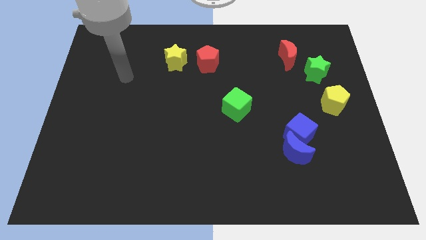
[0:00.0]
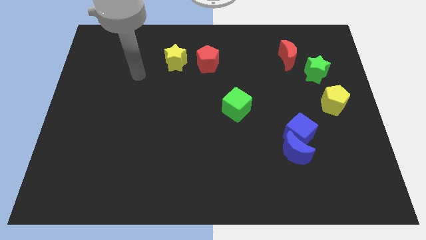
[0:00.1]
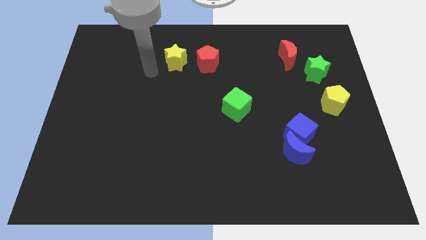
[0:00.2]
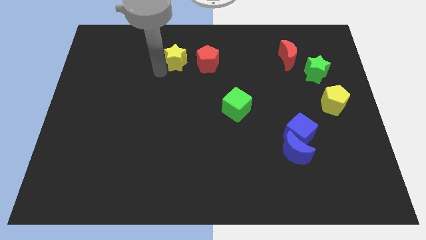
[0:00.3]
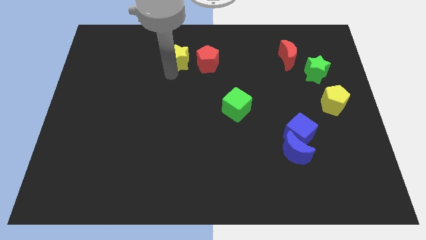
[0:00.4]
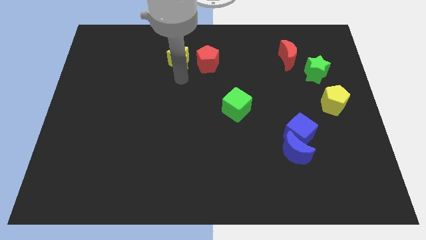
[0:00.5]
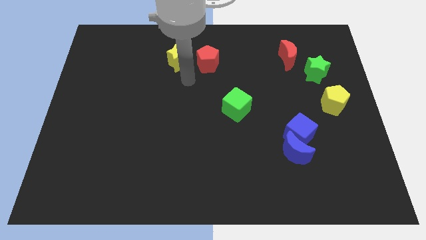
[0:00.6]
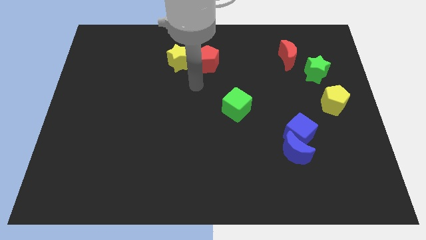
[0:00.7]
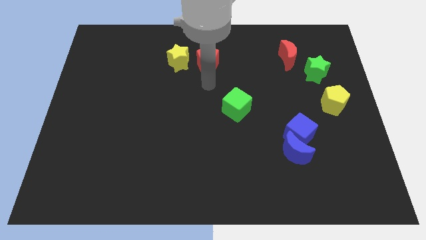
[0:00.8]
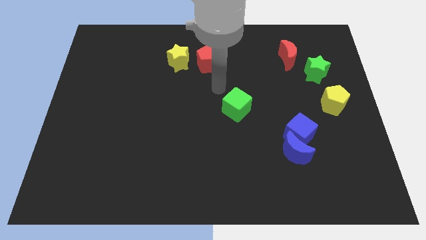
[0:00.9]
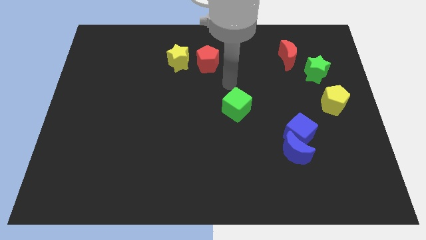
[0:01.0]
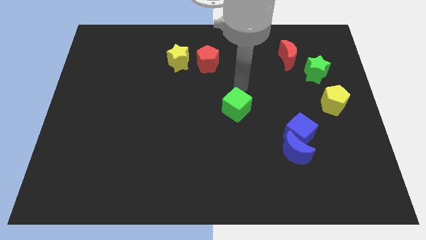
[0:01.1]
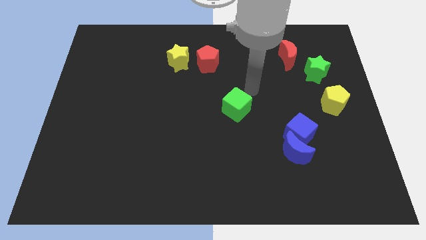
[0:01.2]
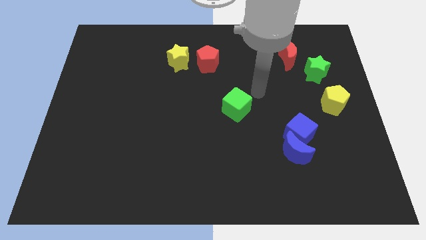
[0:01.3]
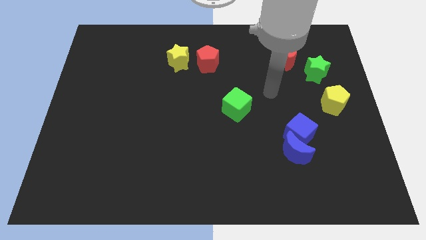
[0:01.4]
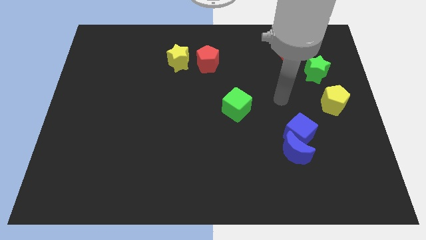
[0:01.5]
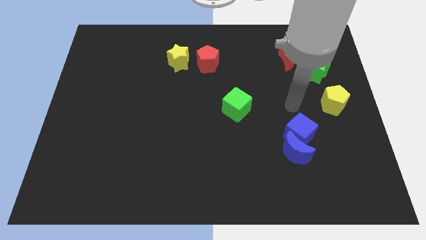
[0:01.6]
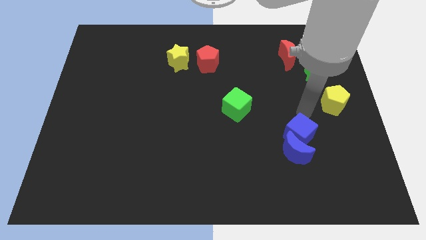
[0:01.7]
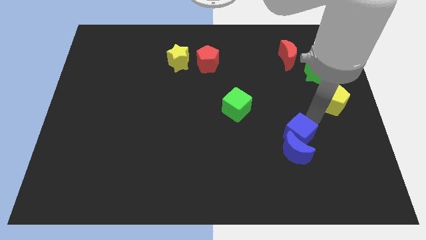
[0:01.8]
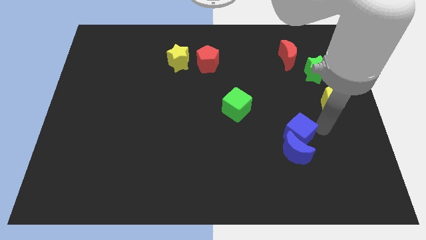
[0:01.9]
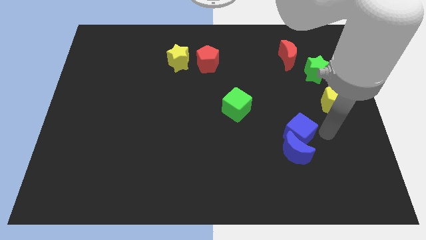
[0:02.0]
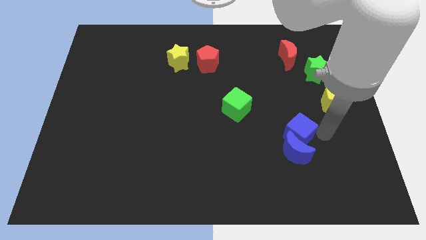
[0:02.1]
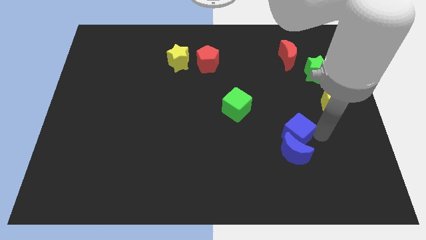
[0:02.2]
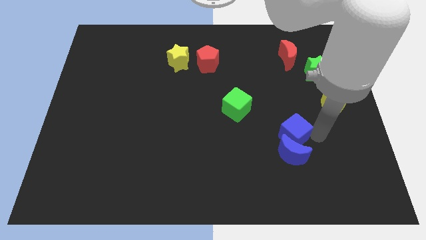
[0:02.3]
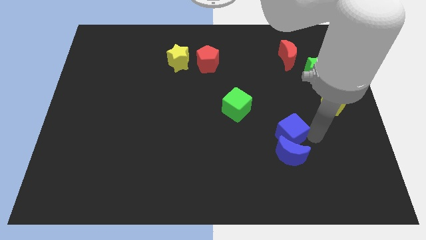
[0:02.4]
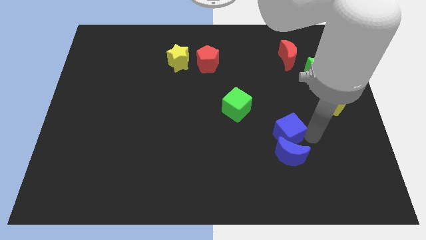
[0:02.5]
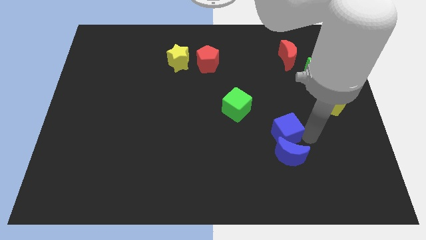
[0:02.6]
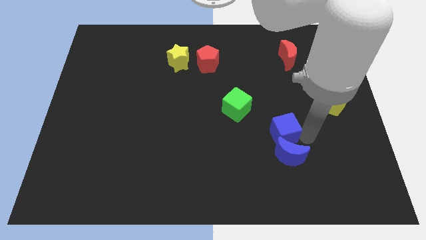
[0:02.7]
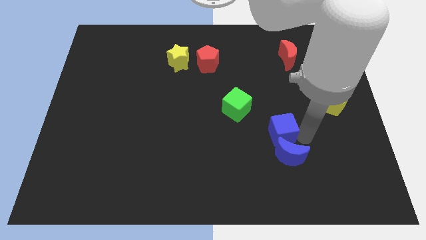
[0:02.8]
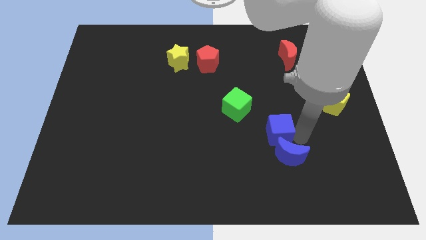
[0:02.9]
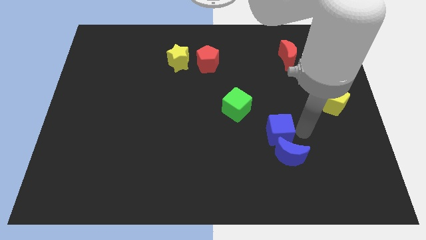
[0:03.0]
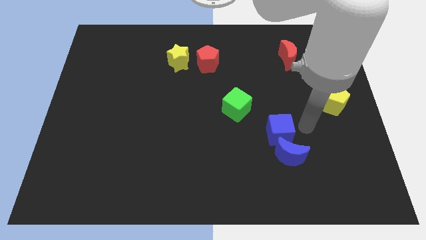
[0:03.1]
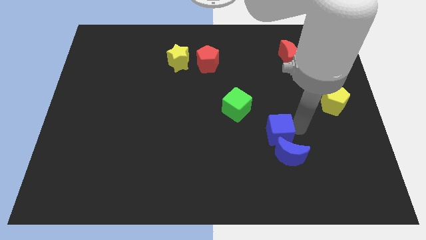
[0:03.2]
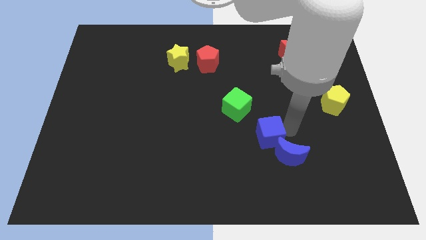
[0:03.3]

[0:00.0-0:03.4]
move the blue cube left a bit

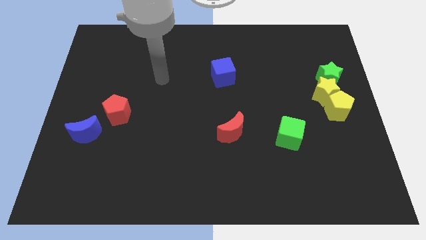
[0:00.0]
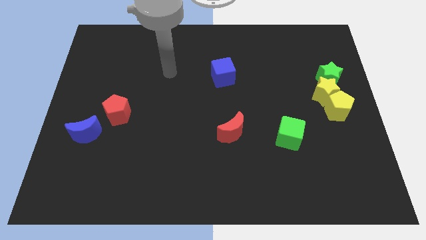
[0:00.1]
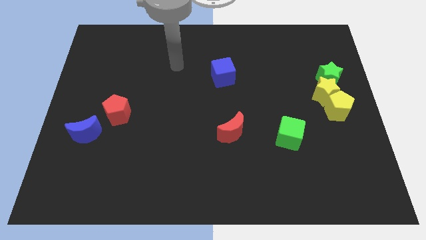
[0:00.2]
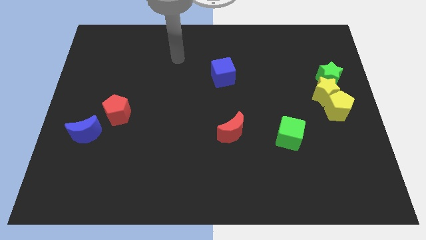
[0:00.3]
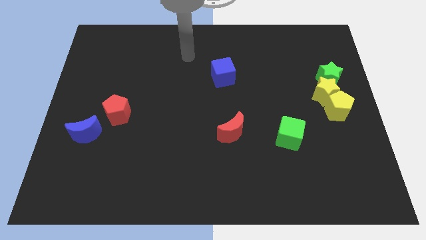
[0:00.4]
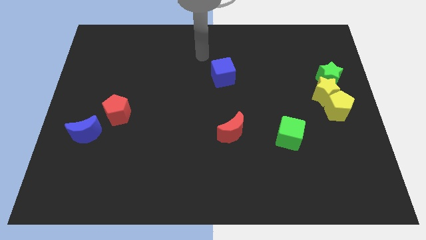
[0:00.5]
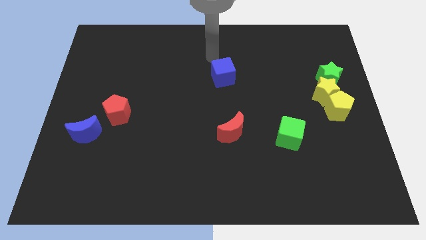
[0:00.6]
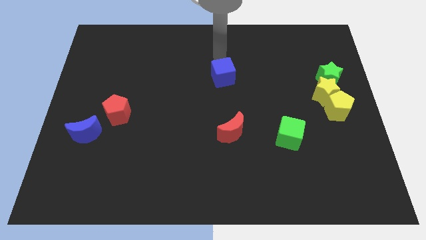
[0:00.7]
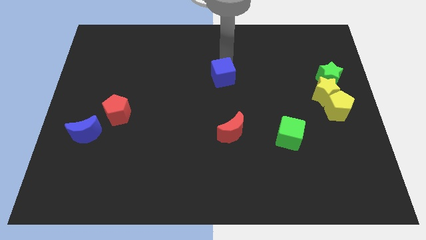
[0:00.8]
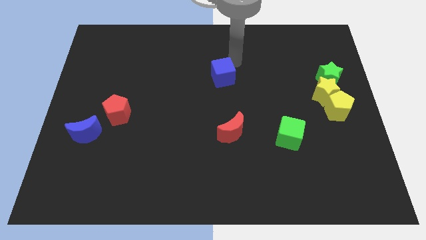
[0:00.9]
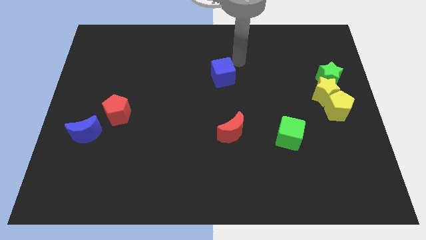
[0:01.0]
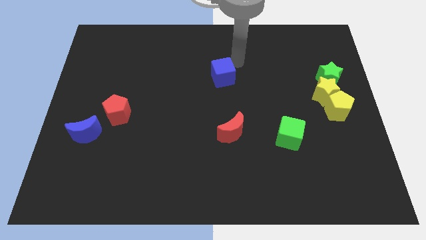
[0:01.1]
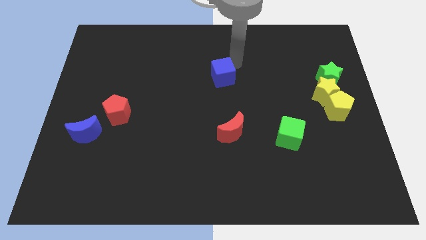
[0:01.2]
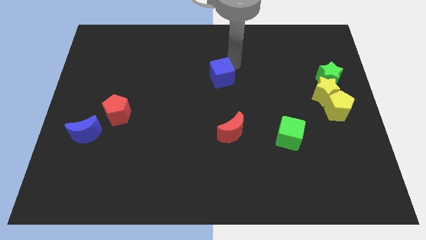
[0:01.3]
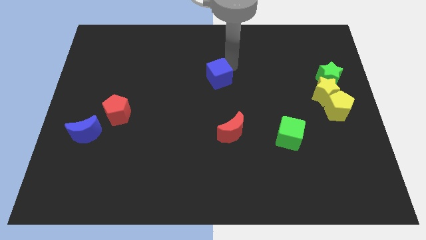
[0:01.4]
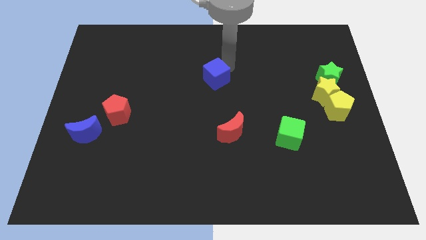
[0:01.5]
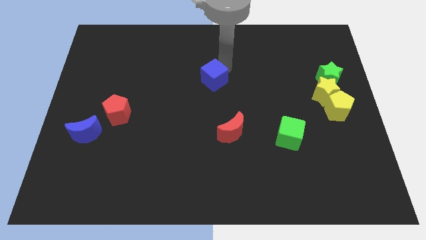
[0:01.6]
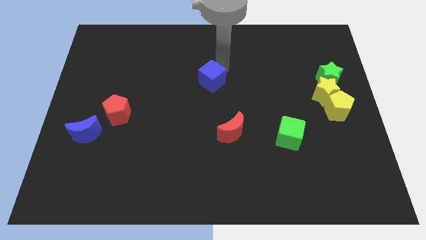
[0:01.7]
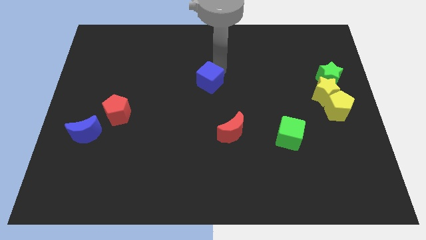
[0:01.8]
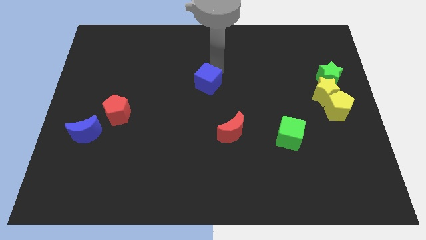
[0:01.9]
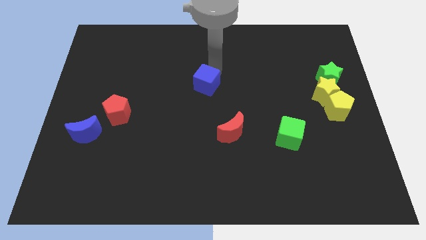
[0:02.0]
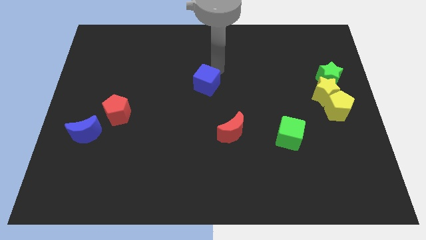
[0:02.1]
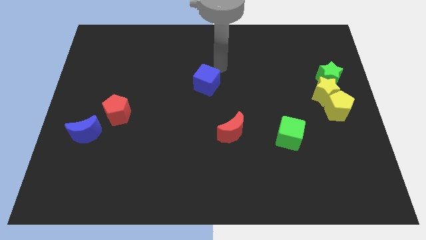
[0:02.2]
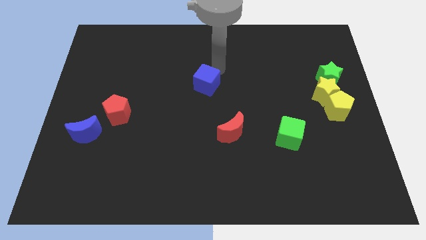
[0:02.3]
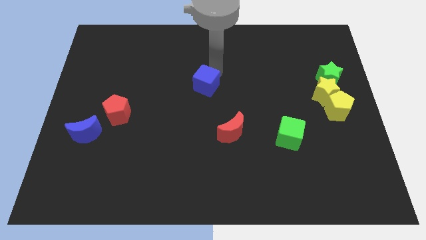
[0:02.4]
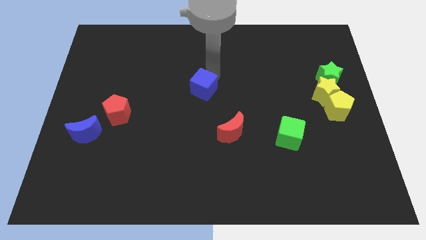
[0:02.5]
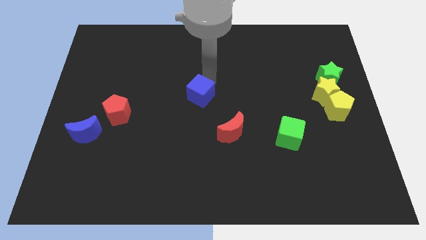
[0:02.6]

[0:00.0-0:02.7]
slide the blue cube down and to the left a little bit

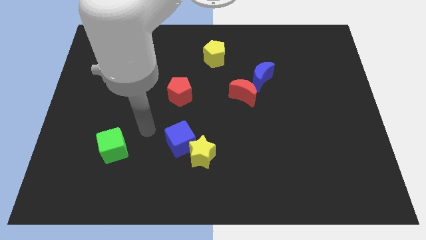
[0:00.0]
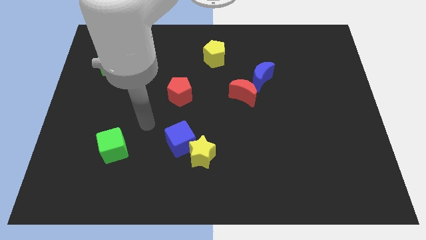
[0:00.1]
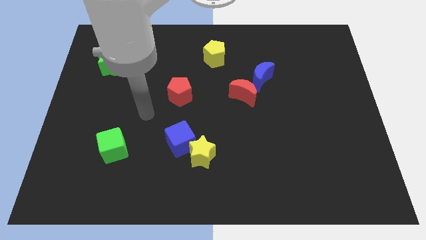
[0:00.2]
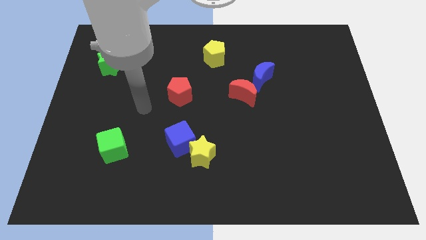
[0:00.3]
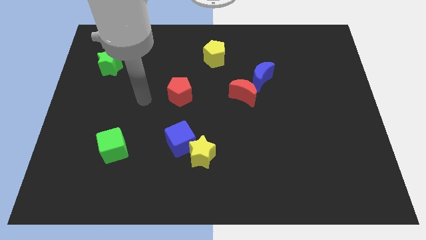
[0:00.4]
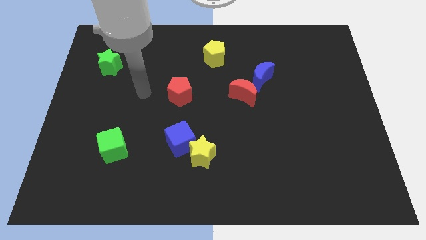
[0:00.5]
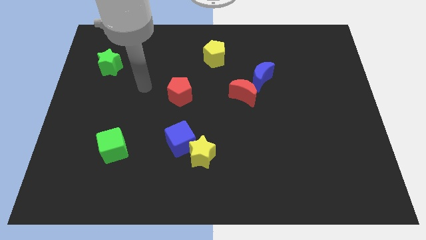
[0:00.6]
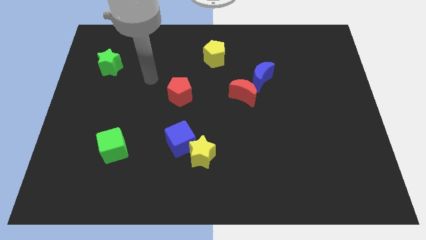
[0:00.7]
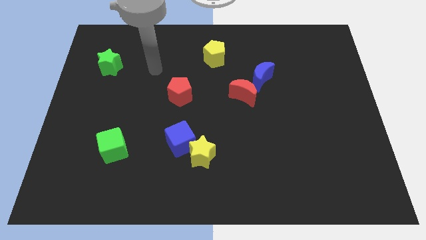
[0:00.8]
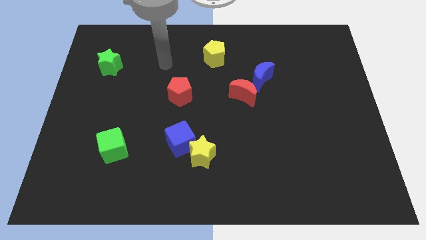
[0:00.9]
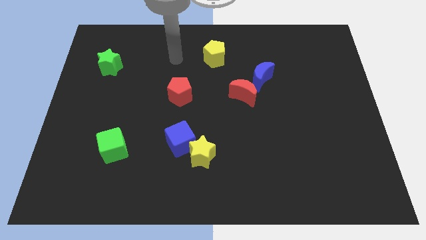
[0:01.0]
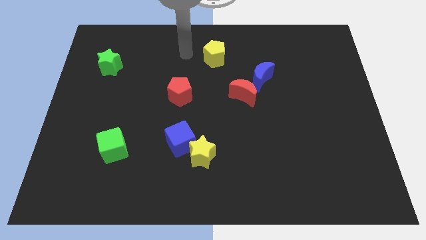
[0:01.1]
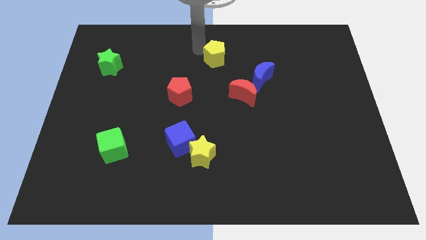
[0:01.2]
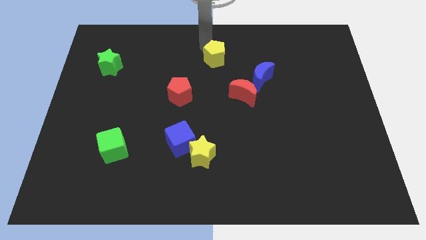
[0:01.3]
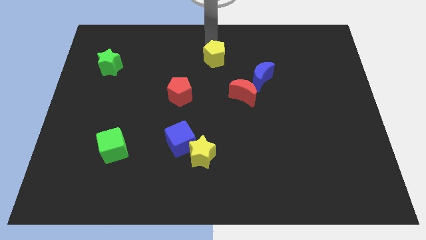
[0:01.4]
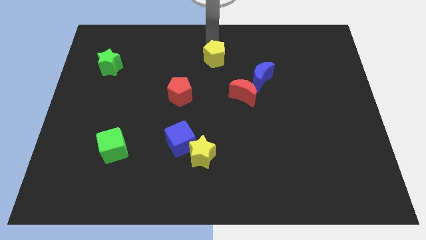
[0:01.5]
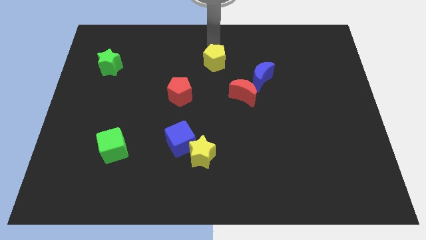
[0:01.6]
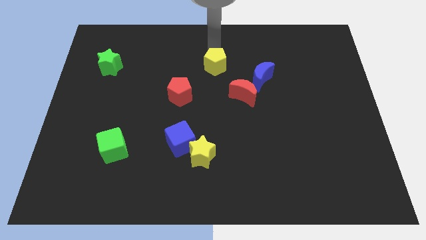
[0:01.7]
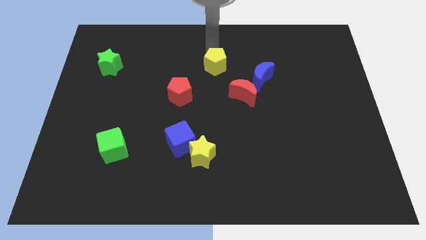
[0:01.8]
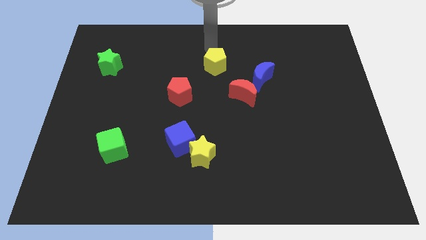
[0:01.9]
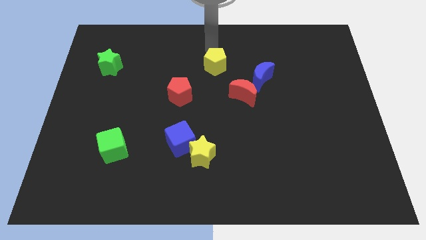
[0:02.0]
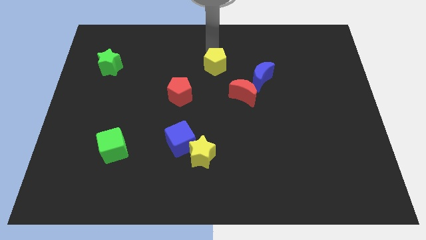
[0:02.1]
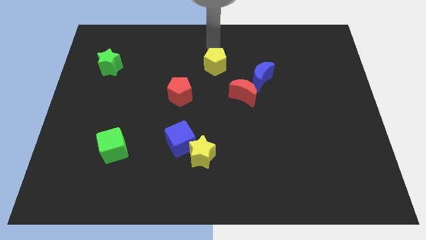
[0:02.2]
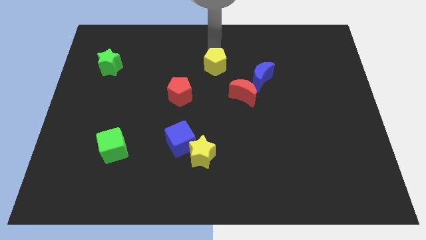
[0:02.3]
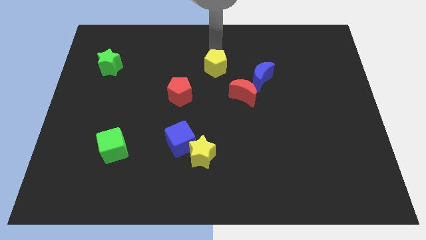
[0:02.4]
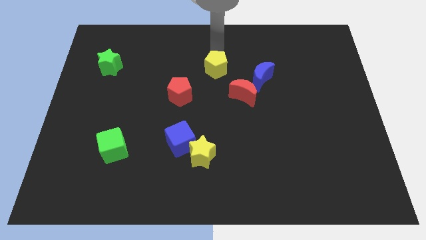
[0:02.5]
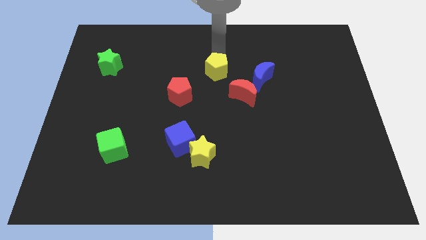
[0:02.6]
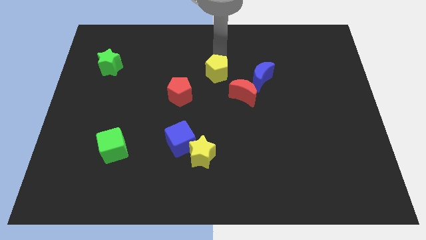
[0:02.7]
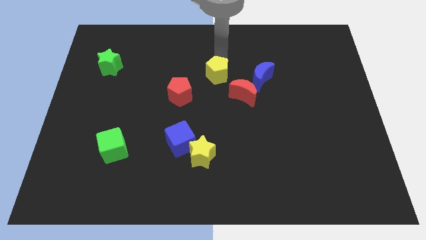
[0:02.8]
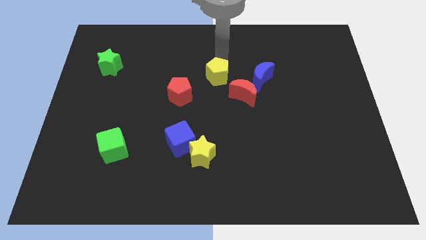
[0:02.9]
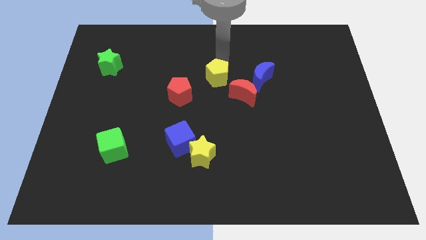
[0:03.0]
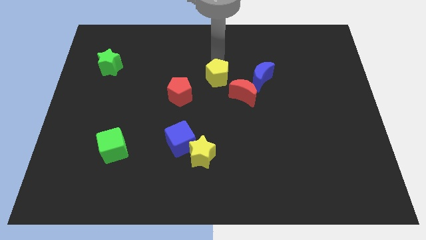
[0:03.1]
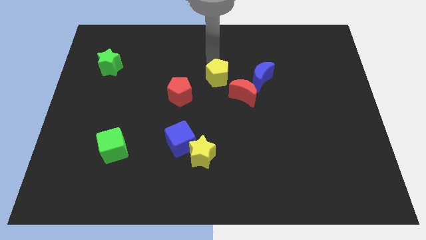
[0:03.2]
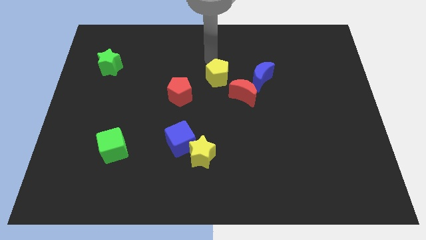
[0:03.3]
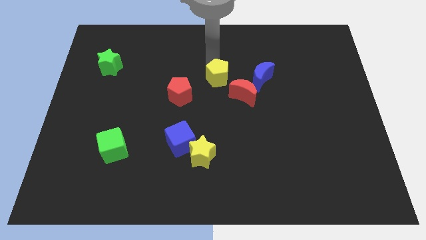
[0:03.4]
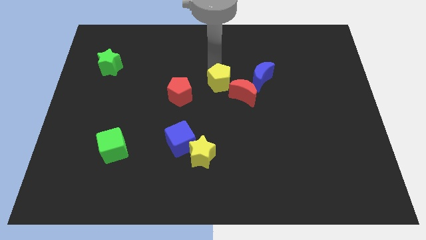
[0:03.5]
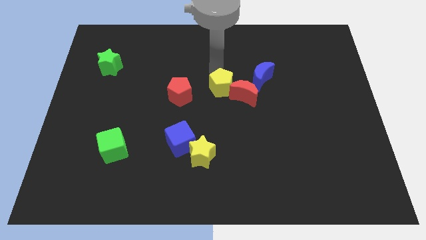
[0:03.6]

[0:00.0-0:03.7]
push the yellow pentagon diagonally downwards and right a little
